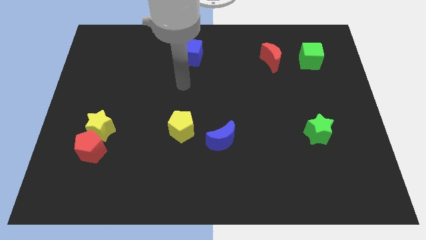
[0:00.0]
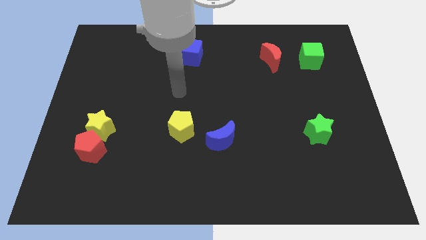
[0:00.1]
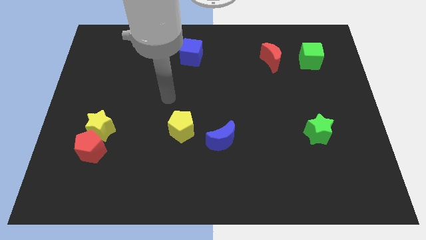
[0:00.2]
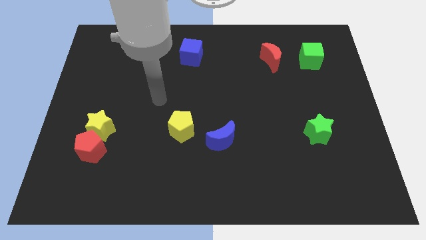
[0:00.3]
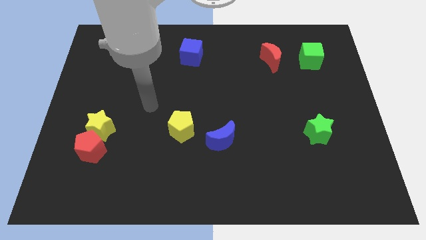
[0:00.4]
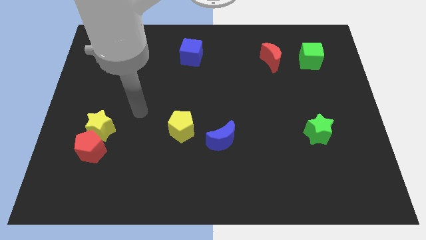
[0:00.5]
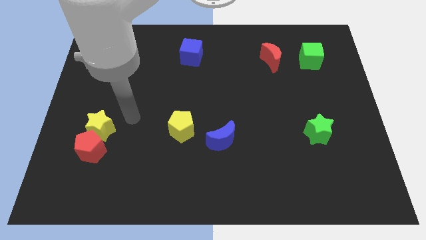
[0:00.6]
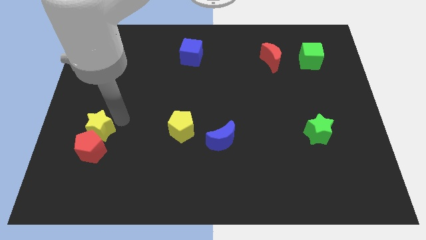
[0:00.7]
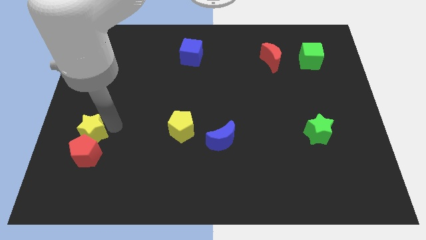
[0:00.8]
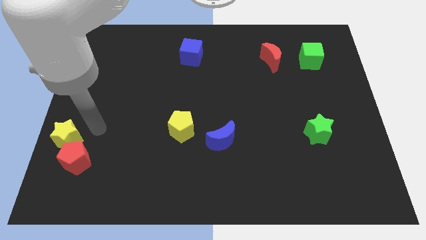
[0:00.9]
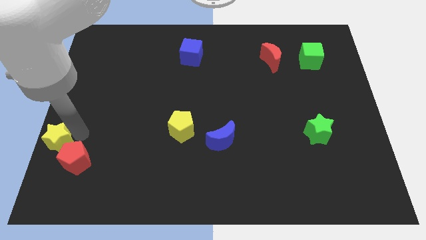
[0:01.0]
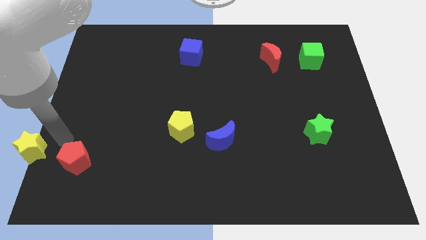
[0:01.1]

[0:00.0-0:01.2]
move the red pentagon away from the yellow star

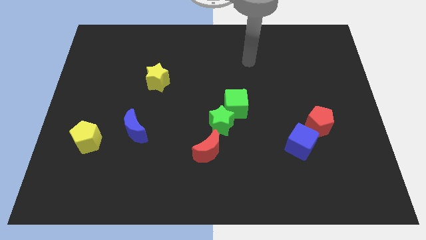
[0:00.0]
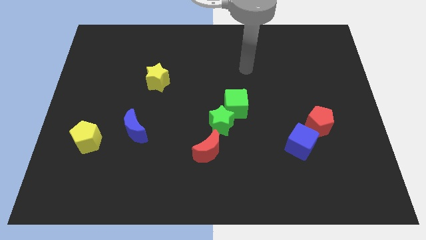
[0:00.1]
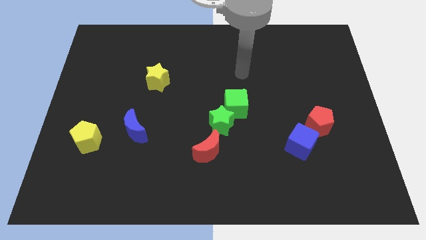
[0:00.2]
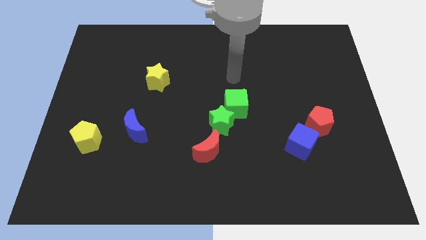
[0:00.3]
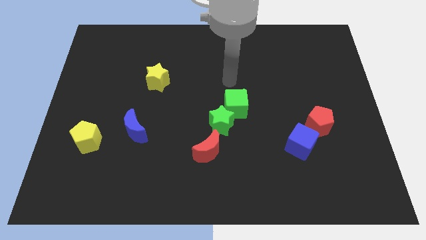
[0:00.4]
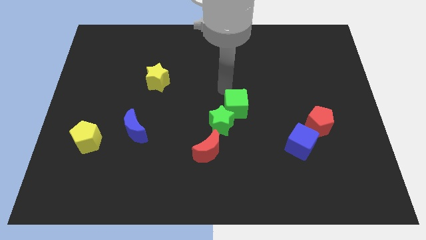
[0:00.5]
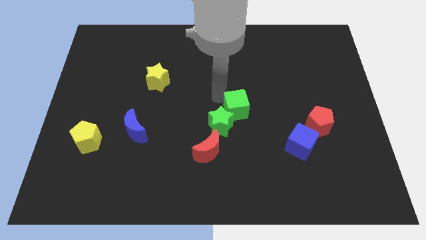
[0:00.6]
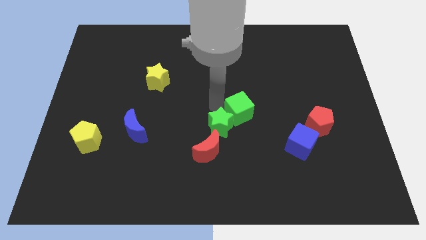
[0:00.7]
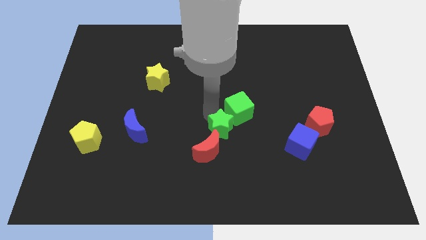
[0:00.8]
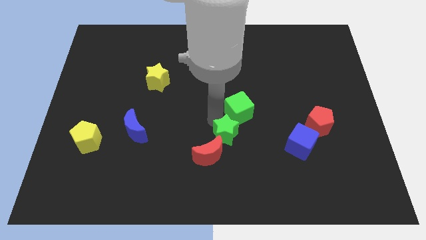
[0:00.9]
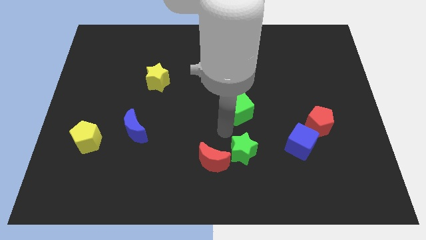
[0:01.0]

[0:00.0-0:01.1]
separate the green cube from the green star

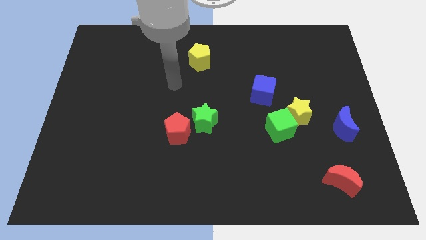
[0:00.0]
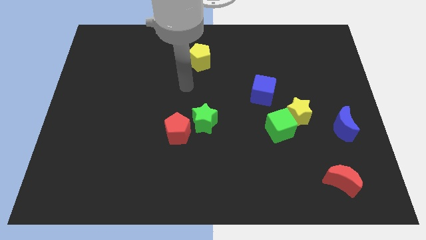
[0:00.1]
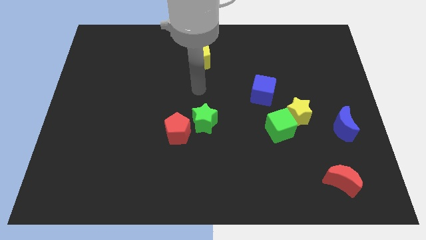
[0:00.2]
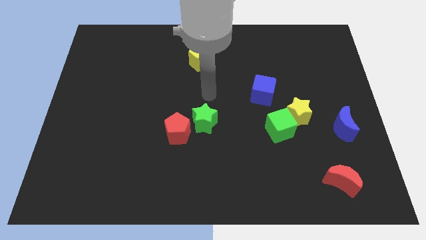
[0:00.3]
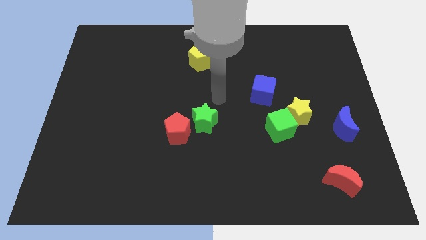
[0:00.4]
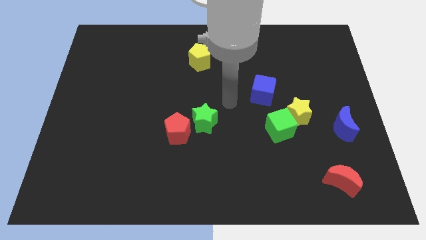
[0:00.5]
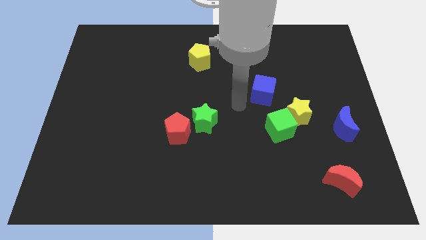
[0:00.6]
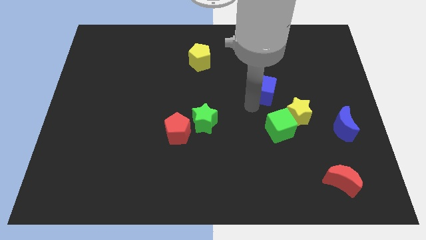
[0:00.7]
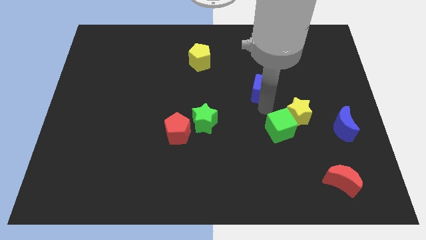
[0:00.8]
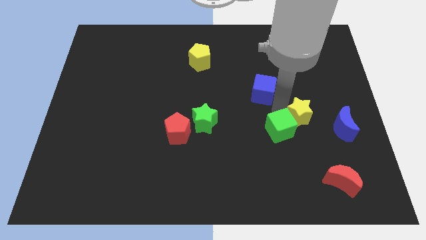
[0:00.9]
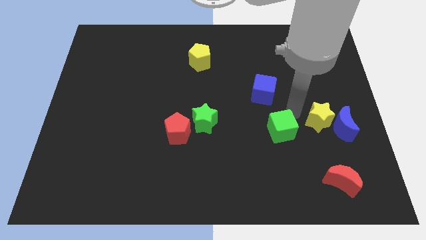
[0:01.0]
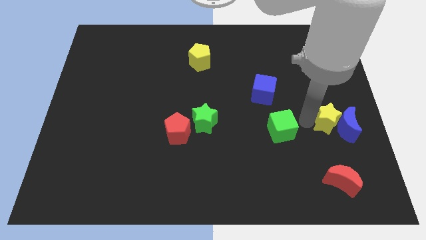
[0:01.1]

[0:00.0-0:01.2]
move the green cube away from the yellow star

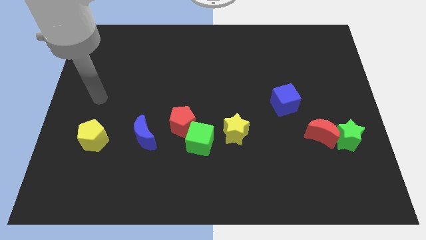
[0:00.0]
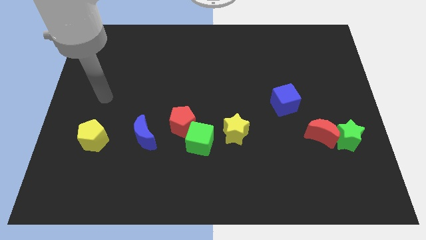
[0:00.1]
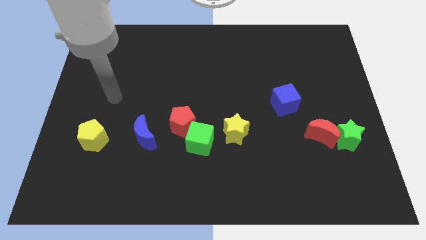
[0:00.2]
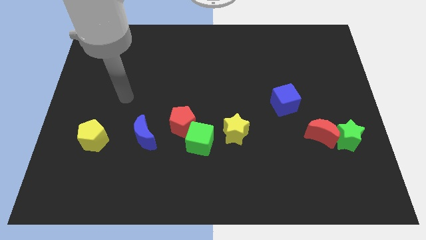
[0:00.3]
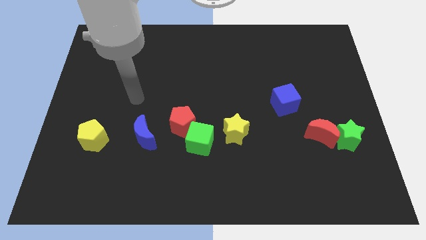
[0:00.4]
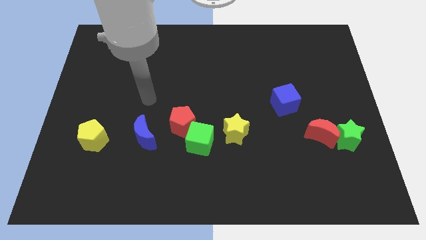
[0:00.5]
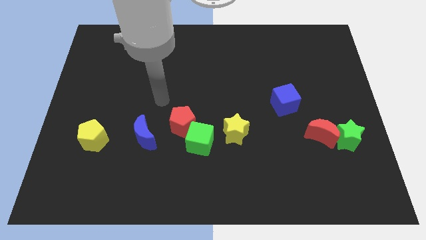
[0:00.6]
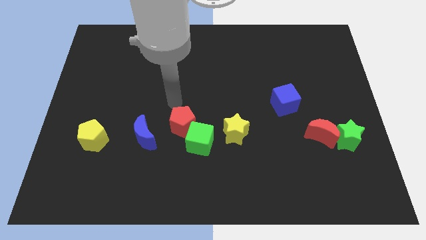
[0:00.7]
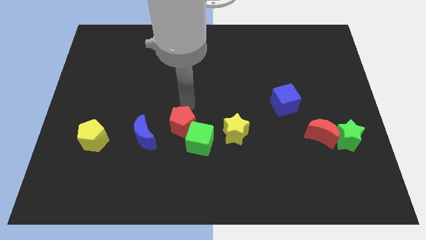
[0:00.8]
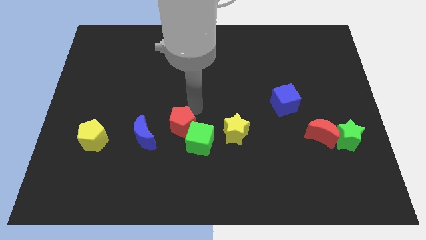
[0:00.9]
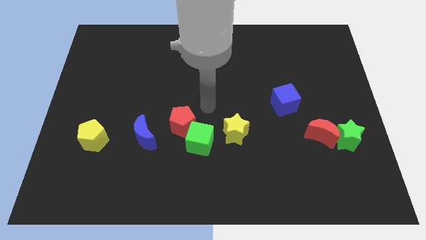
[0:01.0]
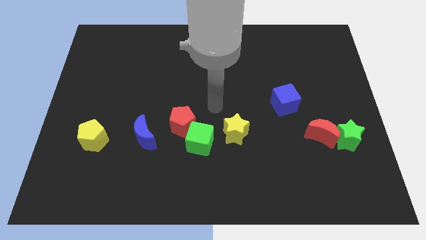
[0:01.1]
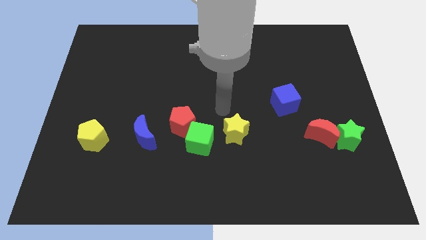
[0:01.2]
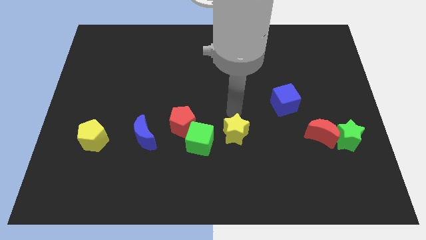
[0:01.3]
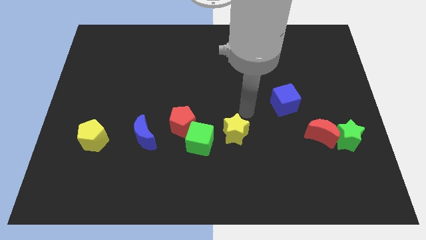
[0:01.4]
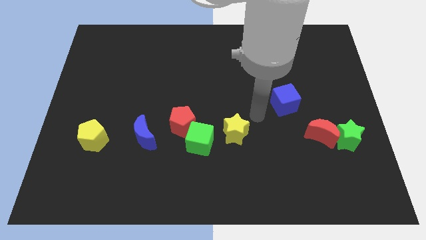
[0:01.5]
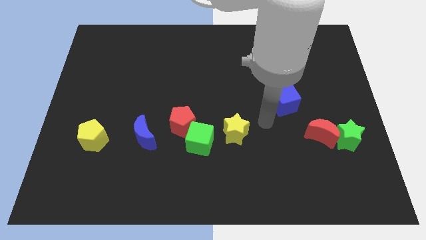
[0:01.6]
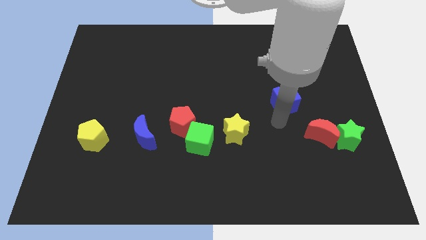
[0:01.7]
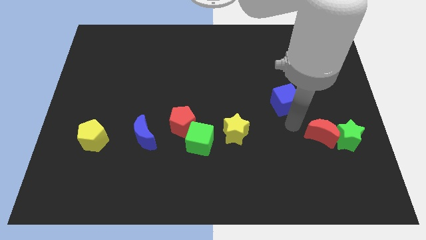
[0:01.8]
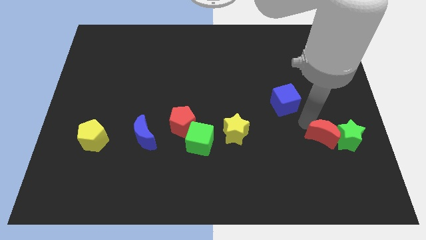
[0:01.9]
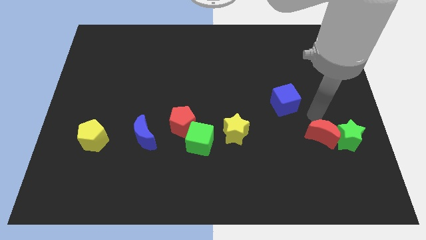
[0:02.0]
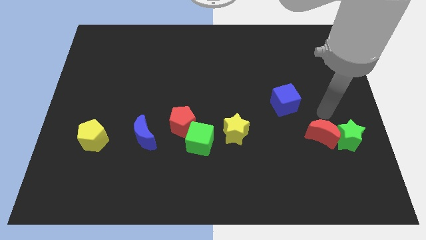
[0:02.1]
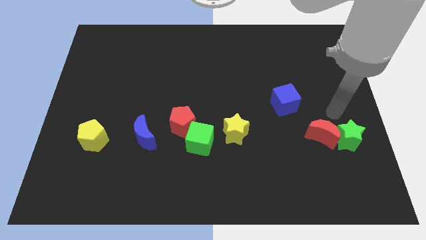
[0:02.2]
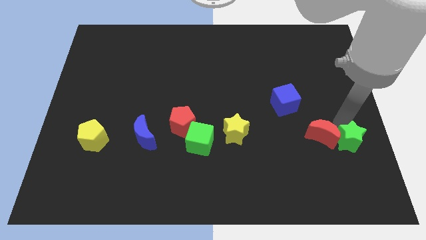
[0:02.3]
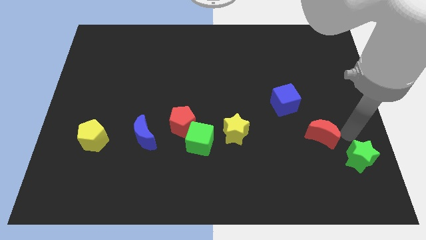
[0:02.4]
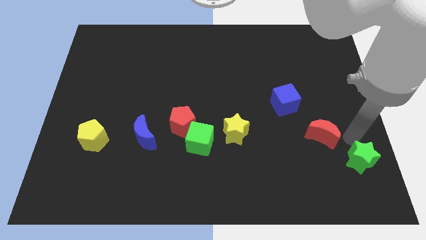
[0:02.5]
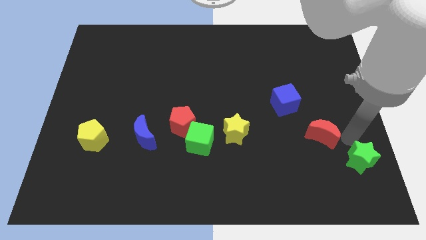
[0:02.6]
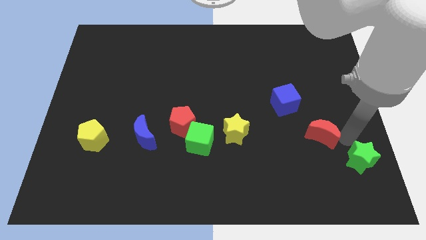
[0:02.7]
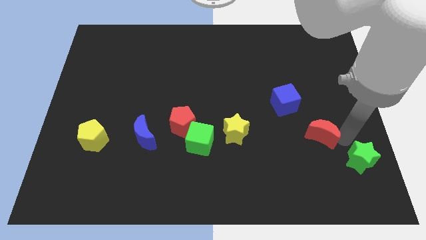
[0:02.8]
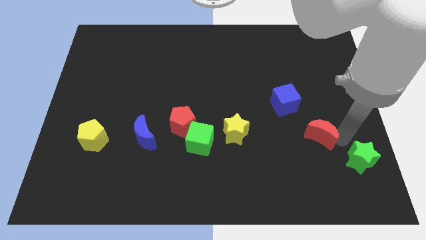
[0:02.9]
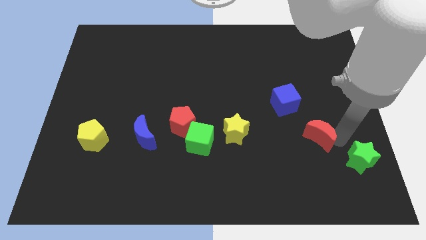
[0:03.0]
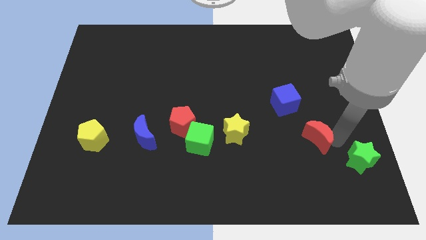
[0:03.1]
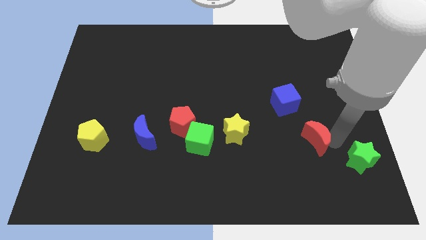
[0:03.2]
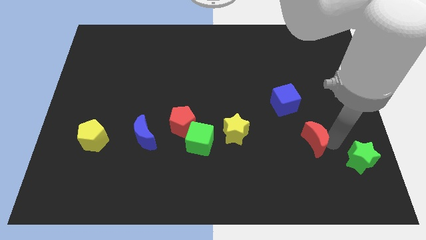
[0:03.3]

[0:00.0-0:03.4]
move the red moon away from the green star

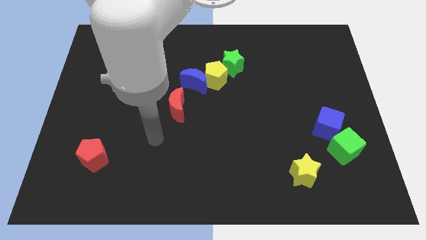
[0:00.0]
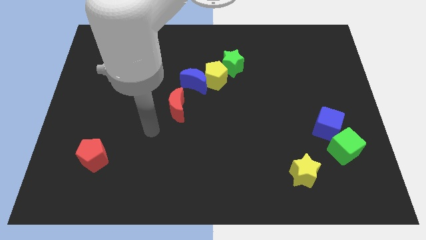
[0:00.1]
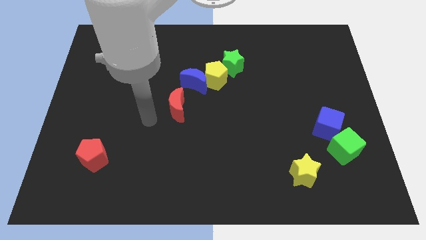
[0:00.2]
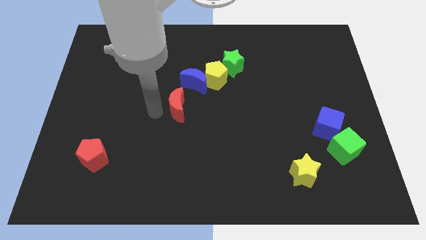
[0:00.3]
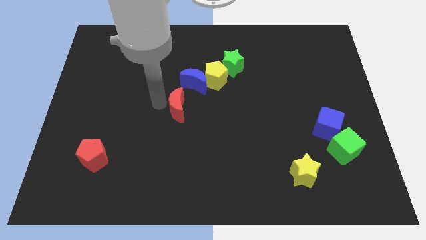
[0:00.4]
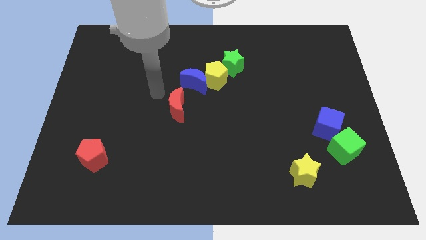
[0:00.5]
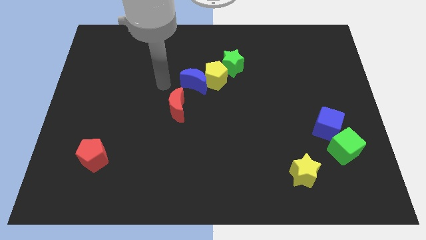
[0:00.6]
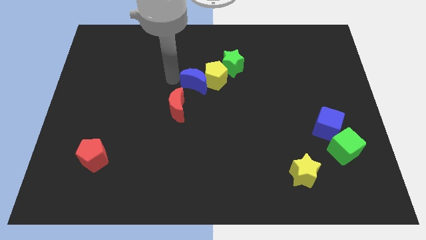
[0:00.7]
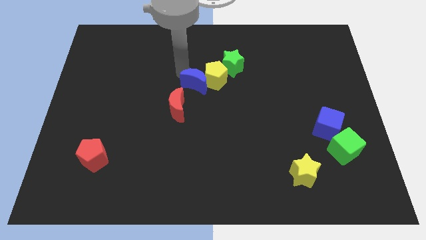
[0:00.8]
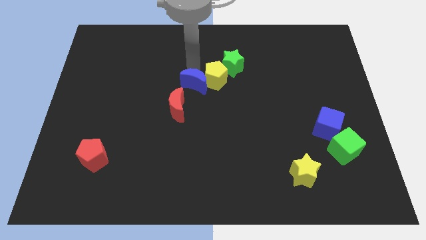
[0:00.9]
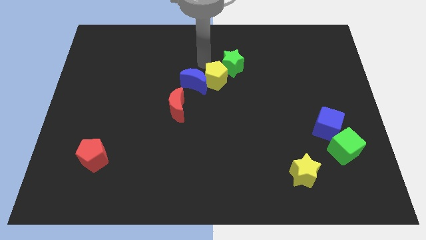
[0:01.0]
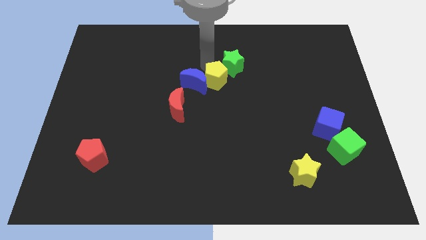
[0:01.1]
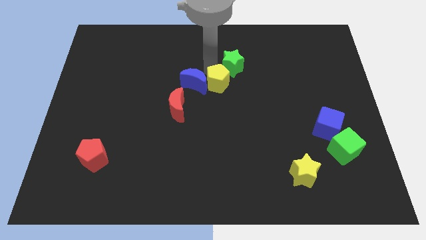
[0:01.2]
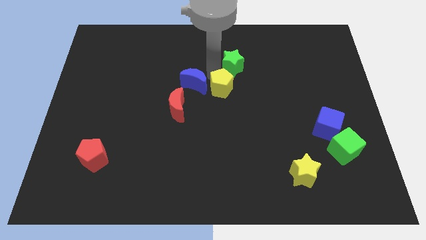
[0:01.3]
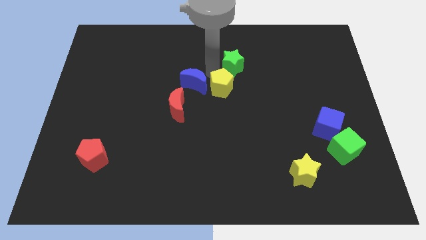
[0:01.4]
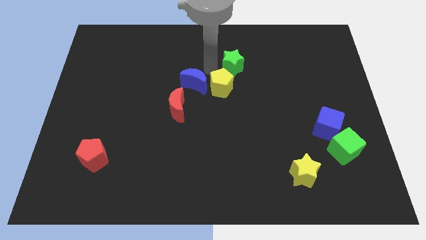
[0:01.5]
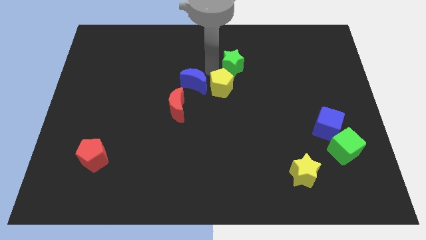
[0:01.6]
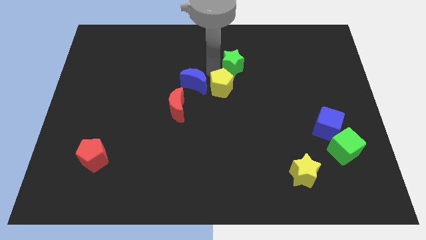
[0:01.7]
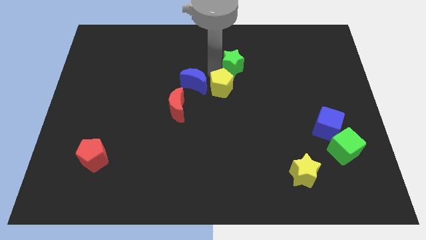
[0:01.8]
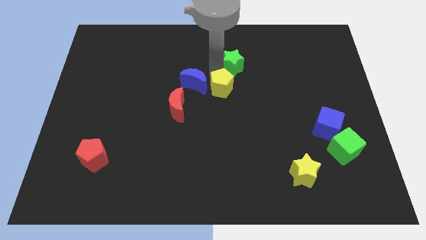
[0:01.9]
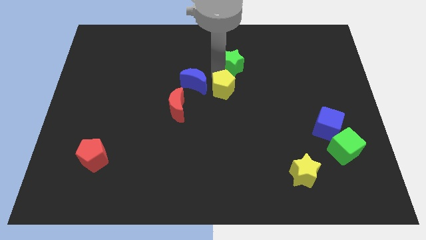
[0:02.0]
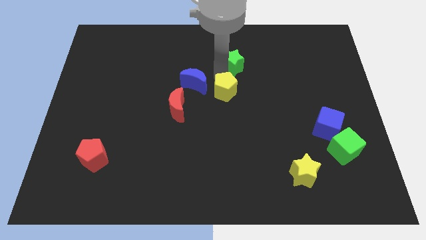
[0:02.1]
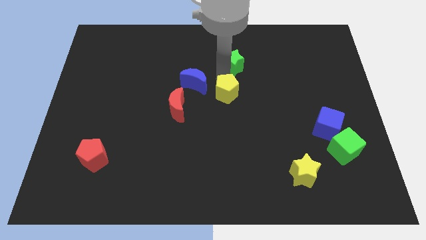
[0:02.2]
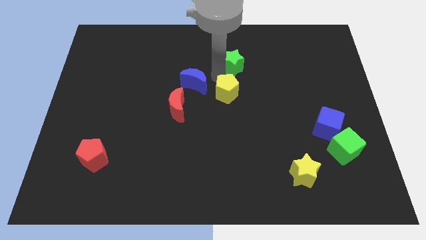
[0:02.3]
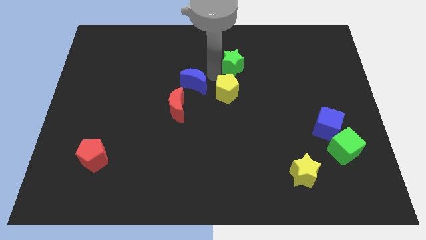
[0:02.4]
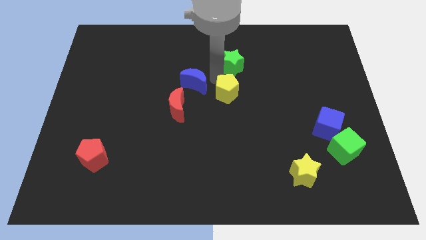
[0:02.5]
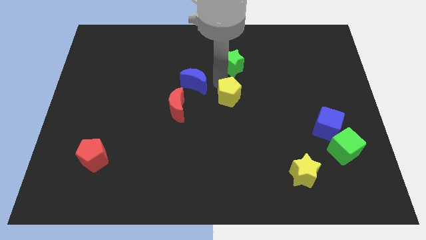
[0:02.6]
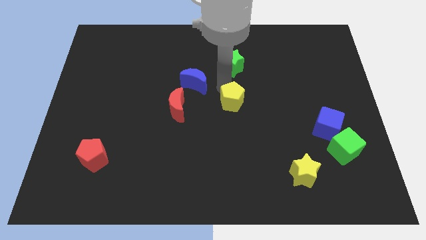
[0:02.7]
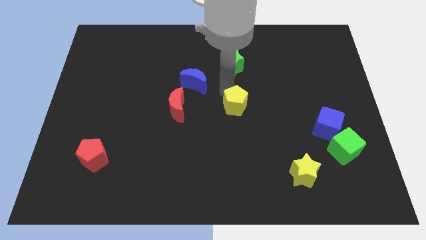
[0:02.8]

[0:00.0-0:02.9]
separate the yellow pentagon from the blue moon and green star
